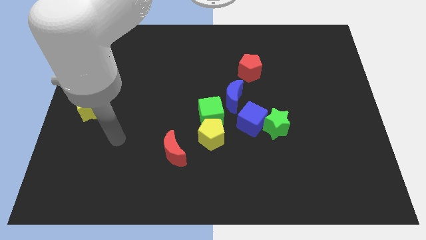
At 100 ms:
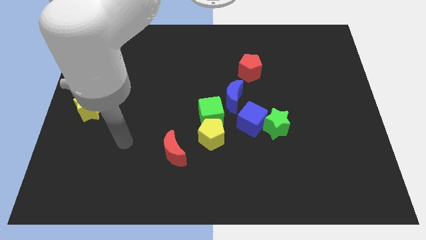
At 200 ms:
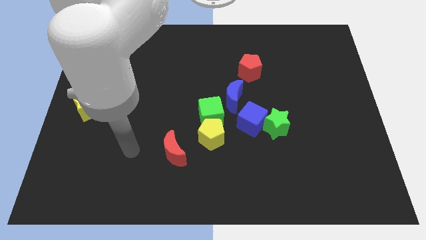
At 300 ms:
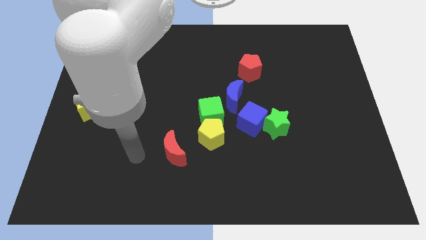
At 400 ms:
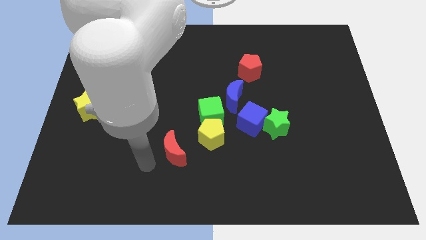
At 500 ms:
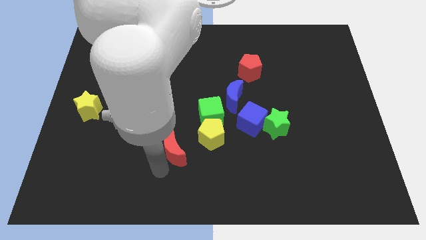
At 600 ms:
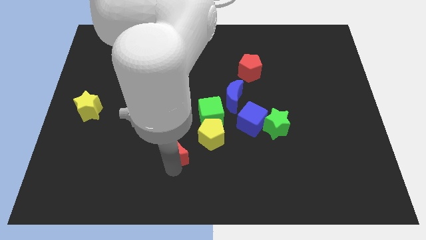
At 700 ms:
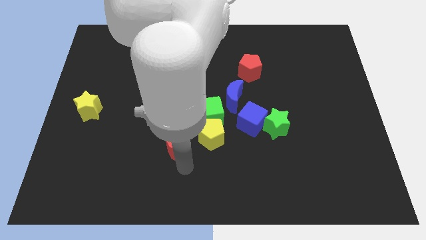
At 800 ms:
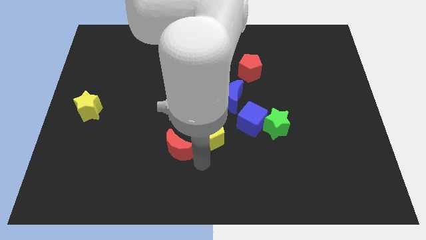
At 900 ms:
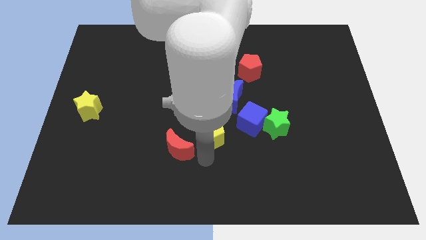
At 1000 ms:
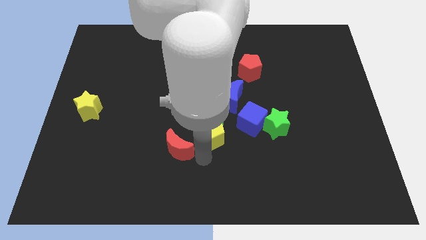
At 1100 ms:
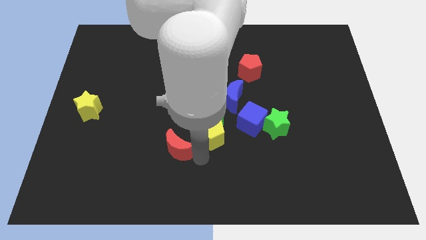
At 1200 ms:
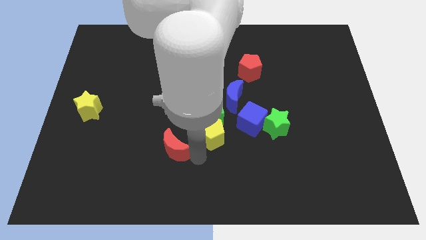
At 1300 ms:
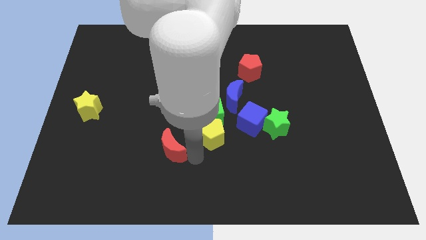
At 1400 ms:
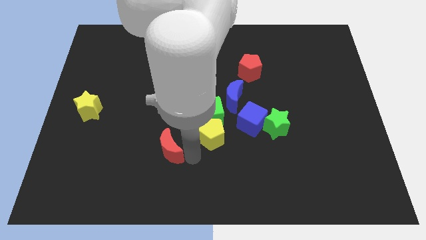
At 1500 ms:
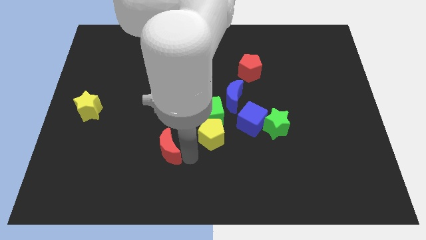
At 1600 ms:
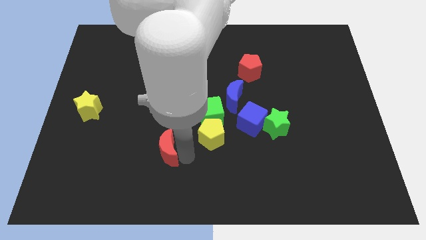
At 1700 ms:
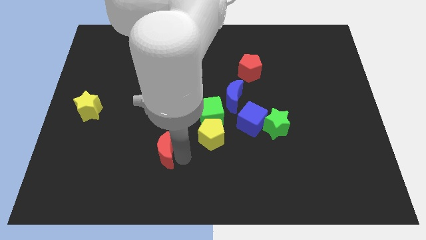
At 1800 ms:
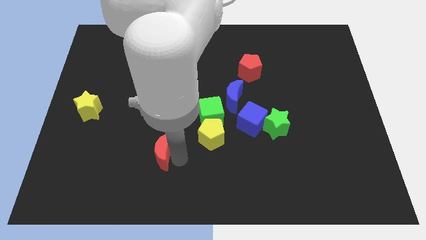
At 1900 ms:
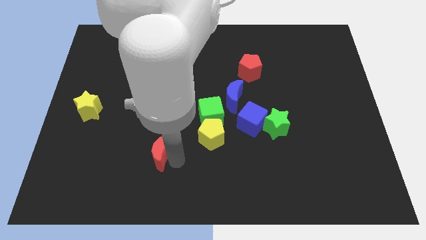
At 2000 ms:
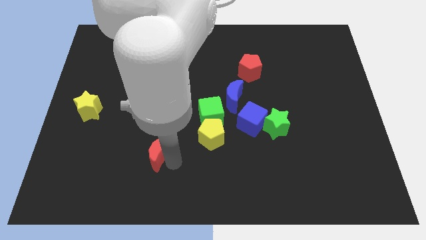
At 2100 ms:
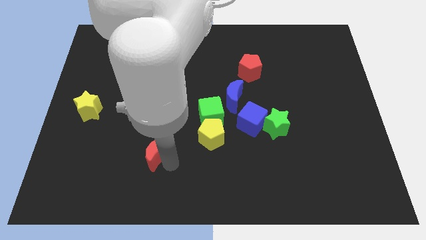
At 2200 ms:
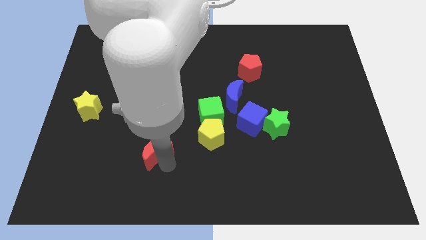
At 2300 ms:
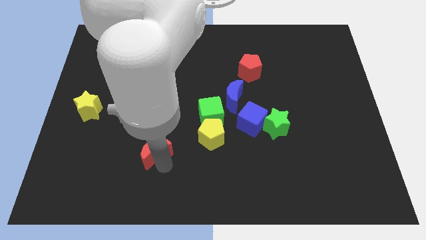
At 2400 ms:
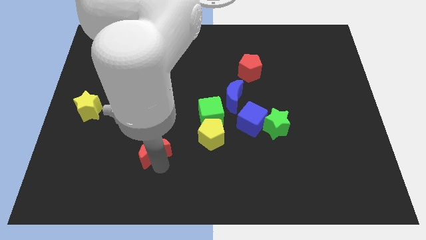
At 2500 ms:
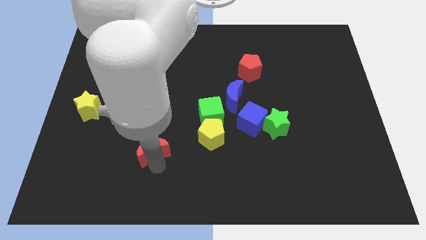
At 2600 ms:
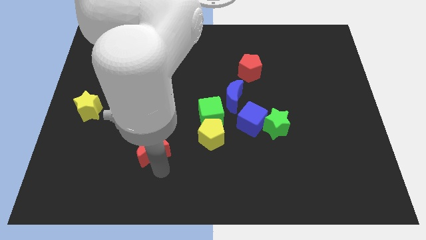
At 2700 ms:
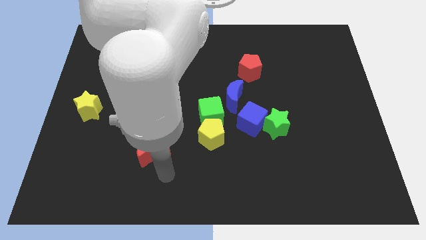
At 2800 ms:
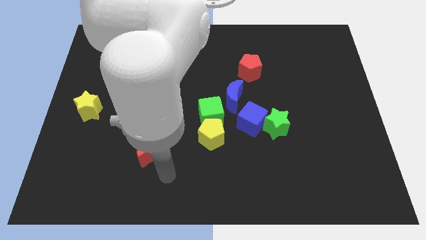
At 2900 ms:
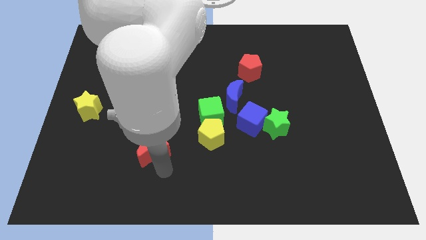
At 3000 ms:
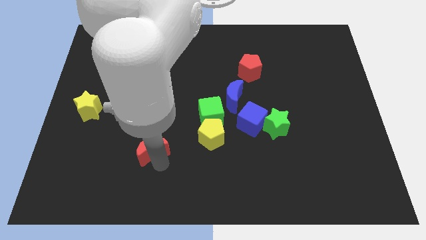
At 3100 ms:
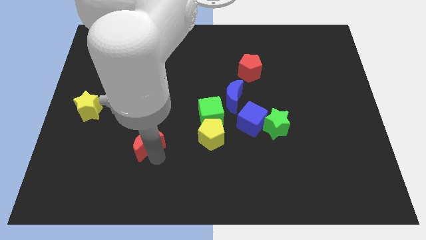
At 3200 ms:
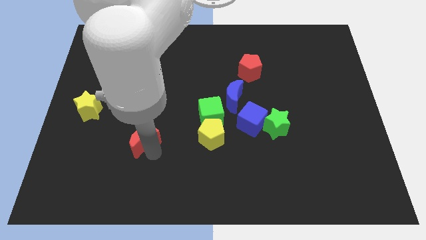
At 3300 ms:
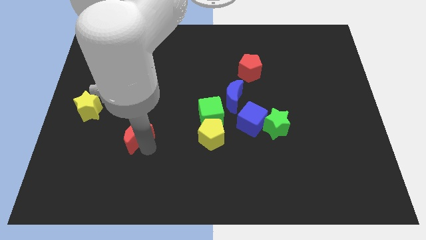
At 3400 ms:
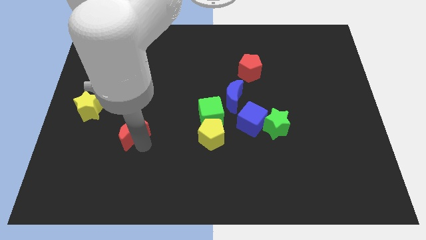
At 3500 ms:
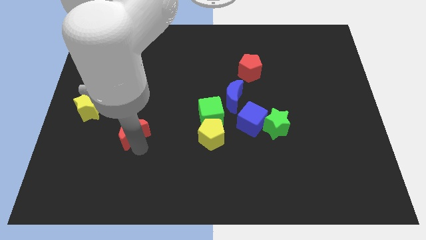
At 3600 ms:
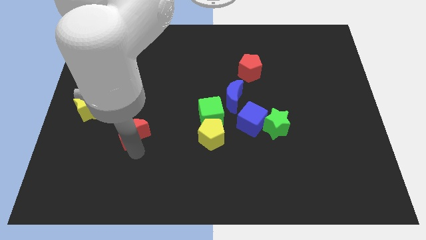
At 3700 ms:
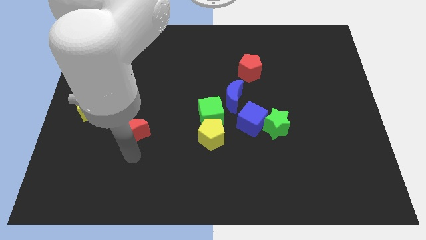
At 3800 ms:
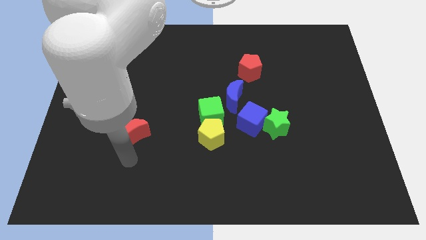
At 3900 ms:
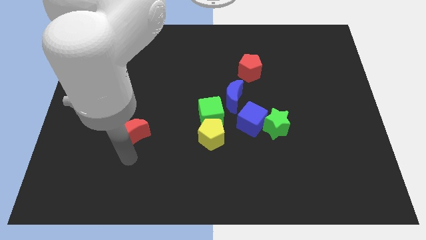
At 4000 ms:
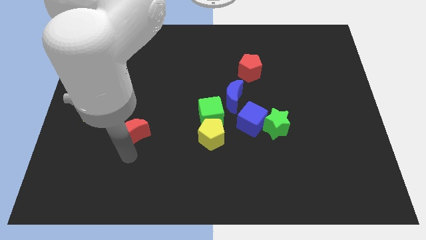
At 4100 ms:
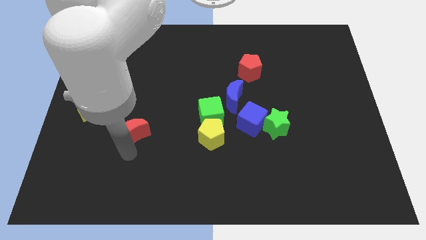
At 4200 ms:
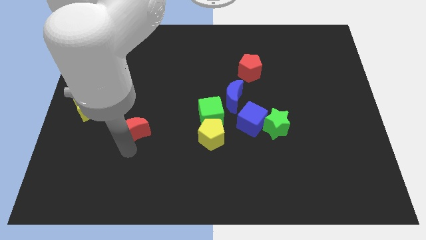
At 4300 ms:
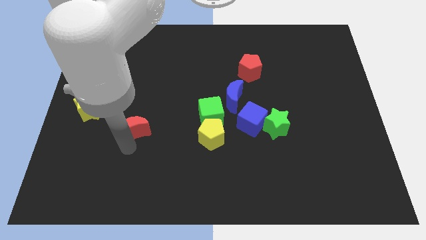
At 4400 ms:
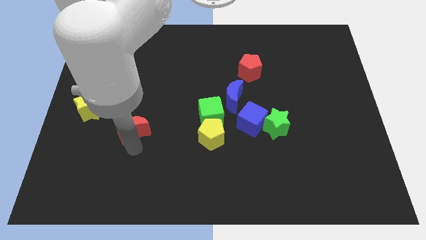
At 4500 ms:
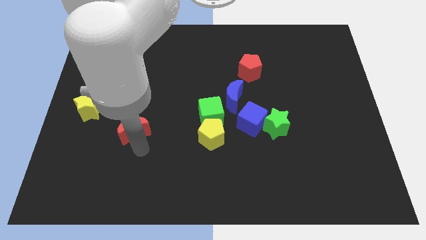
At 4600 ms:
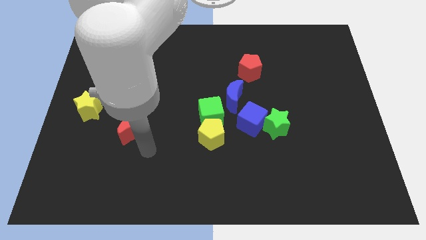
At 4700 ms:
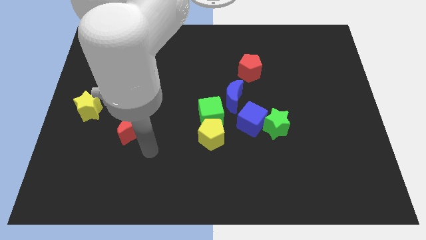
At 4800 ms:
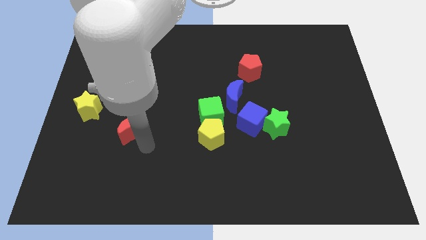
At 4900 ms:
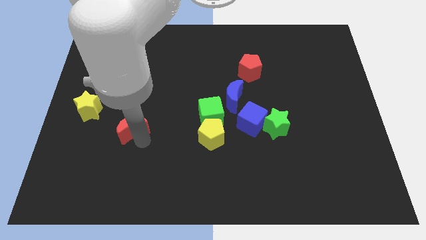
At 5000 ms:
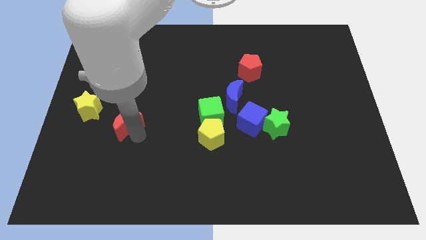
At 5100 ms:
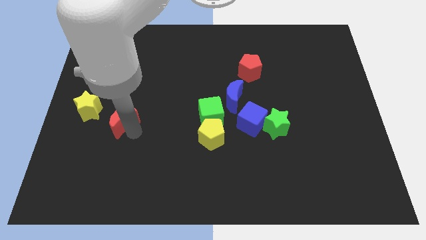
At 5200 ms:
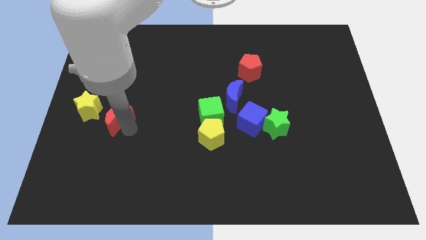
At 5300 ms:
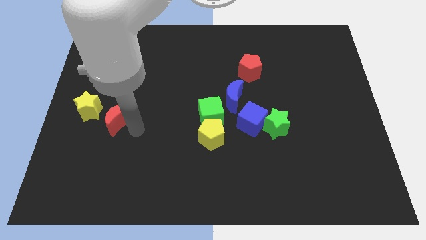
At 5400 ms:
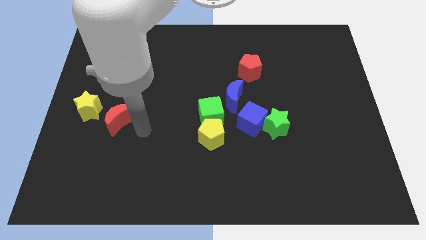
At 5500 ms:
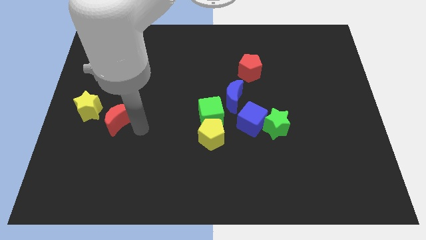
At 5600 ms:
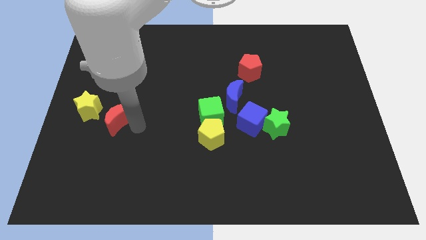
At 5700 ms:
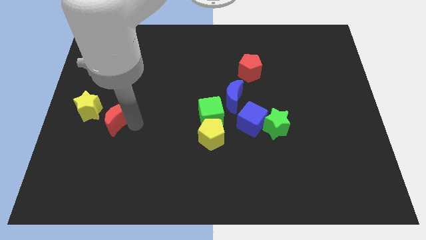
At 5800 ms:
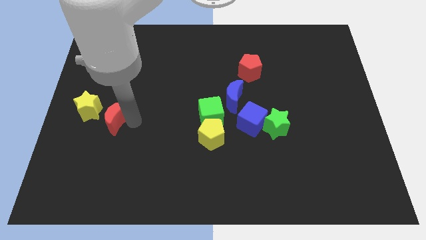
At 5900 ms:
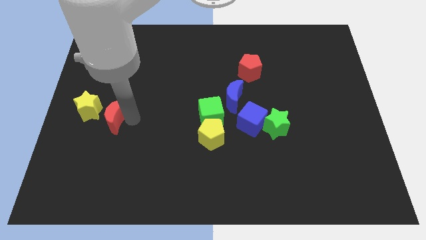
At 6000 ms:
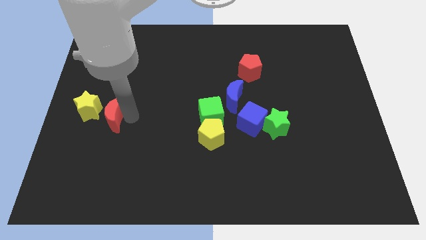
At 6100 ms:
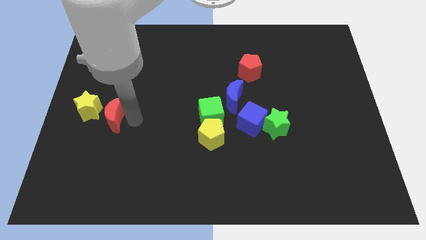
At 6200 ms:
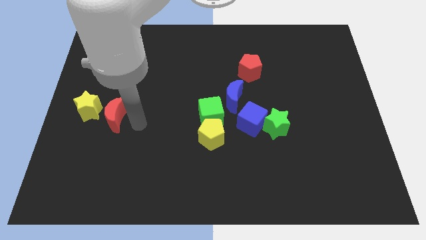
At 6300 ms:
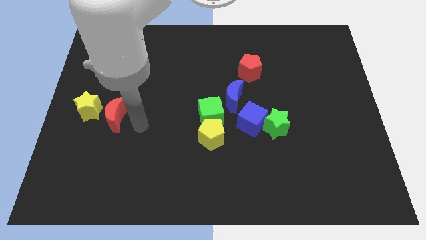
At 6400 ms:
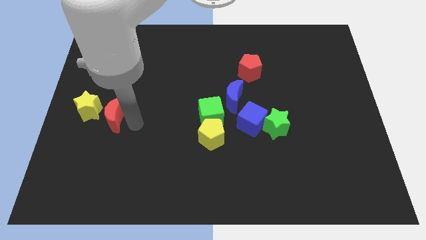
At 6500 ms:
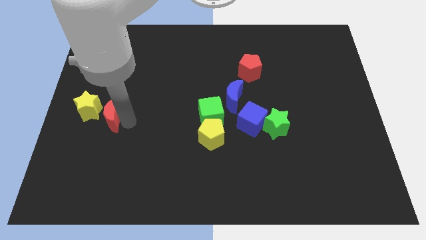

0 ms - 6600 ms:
put the red moon close to the yellow star
